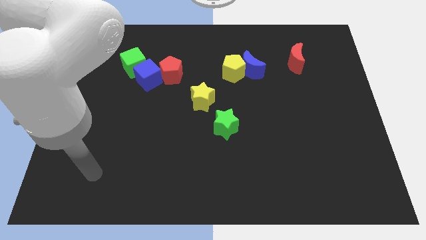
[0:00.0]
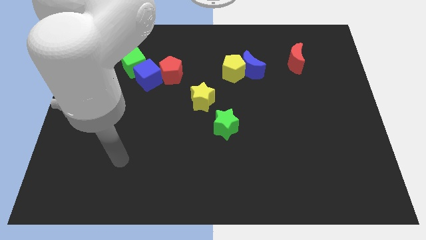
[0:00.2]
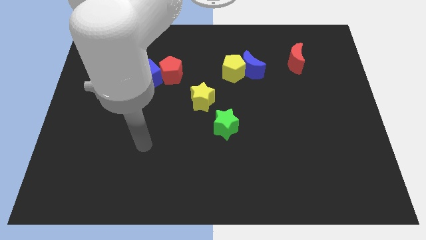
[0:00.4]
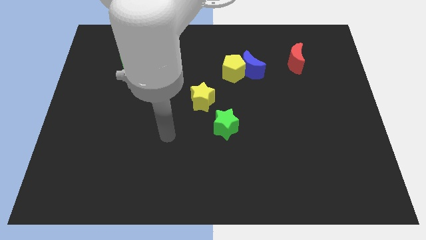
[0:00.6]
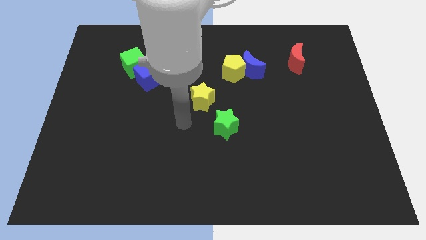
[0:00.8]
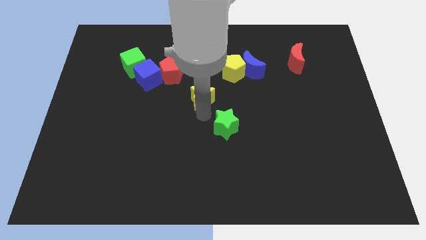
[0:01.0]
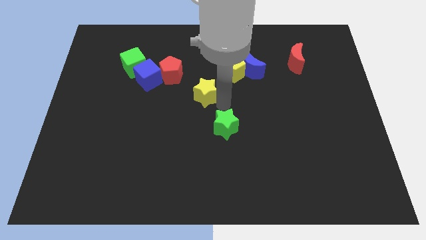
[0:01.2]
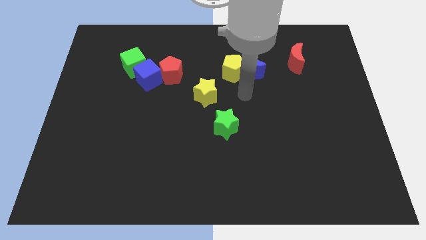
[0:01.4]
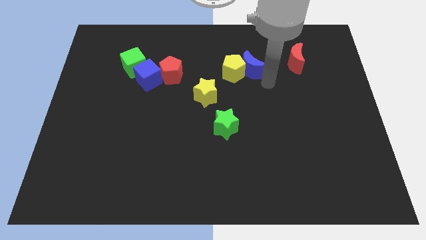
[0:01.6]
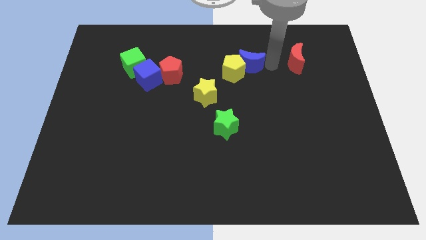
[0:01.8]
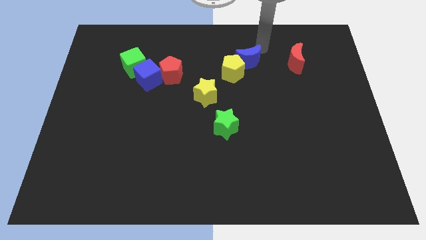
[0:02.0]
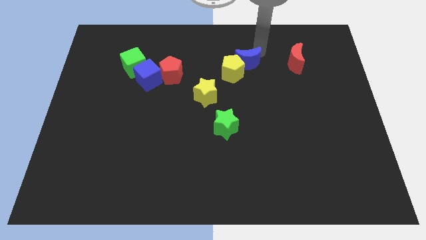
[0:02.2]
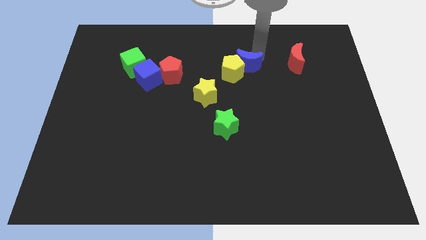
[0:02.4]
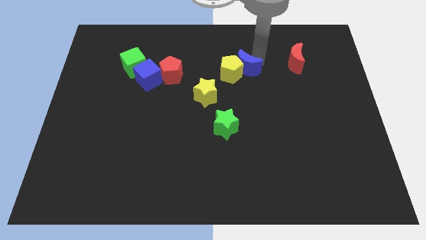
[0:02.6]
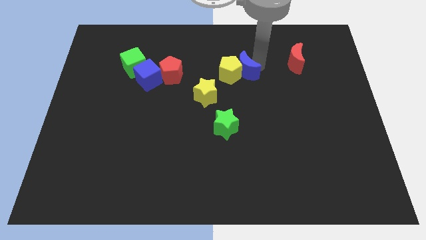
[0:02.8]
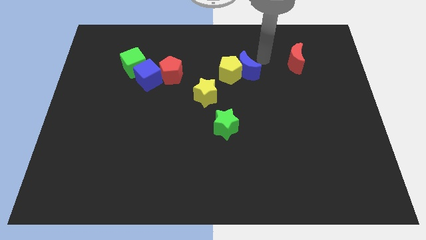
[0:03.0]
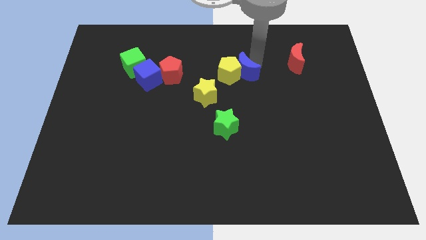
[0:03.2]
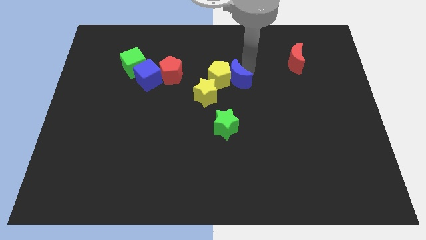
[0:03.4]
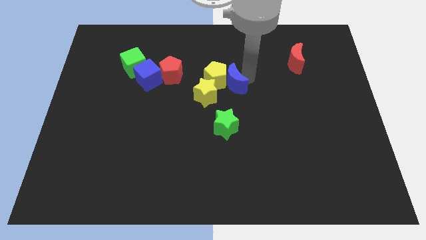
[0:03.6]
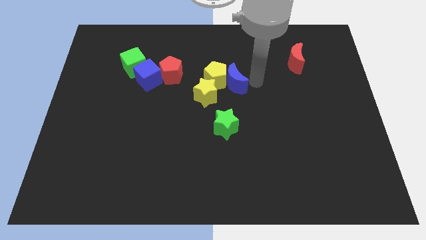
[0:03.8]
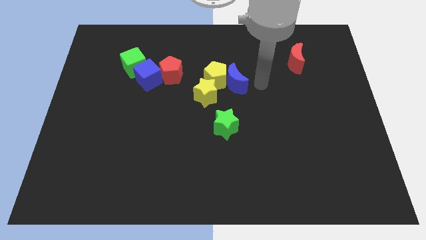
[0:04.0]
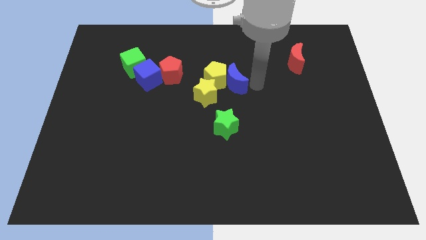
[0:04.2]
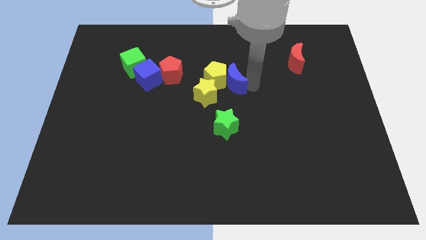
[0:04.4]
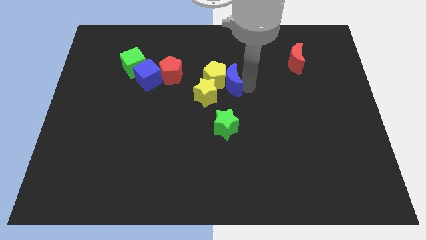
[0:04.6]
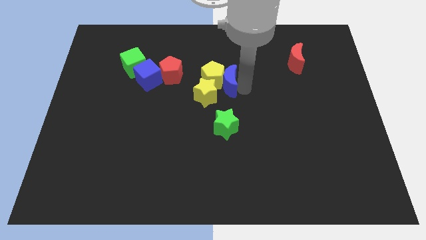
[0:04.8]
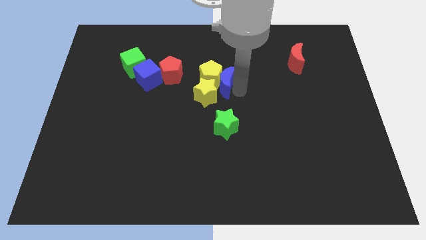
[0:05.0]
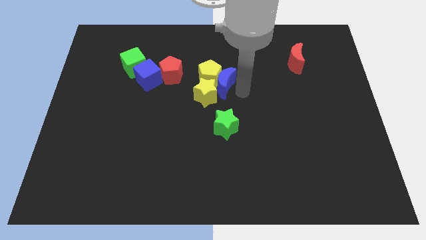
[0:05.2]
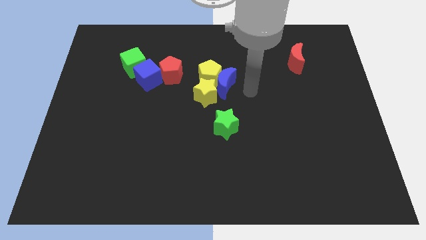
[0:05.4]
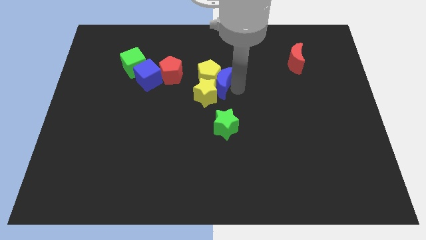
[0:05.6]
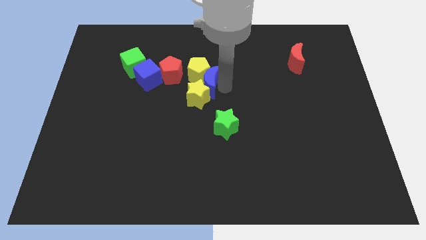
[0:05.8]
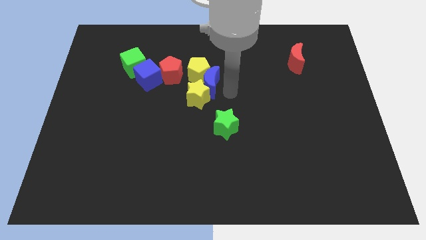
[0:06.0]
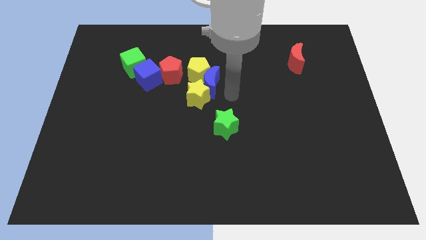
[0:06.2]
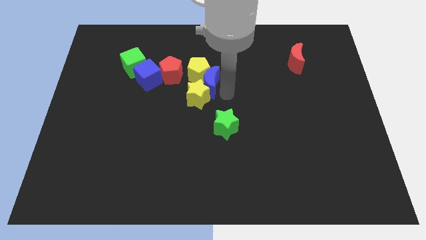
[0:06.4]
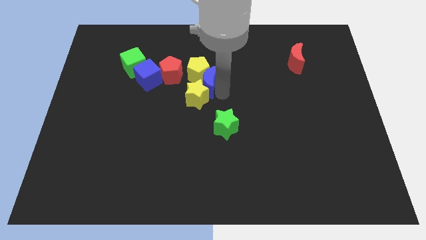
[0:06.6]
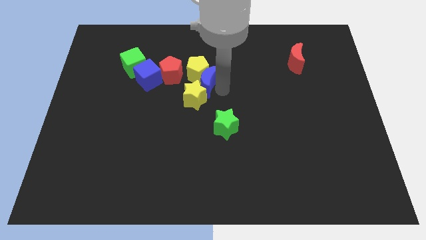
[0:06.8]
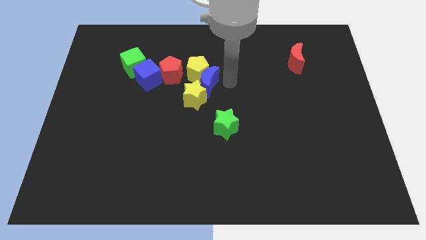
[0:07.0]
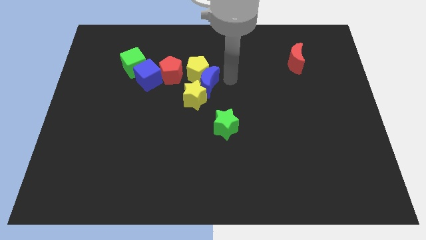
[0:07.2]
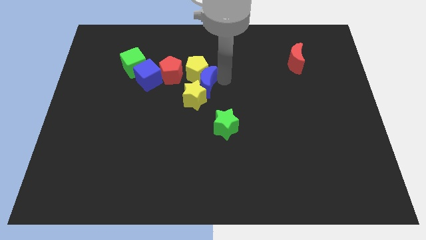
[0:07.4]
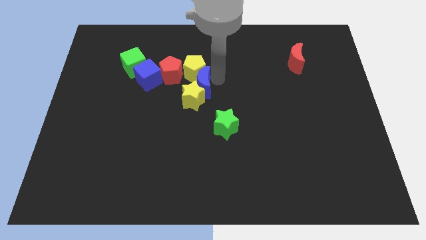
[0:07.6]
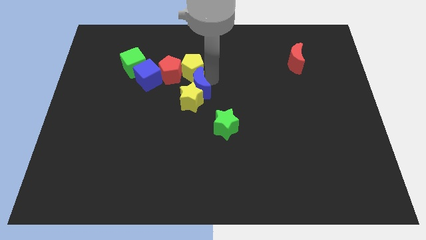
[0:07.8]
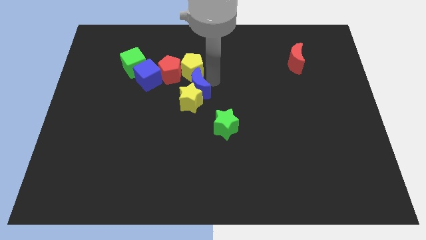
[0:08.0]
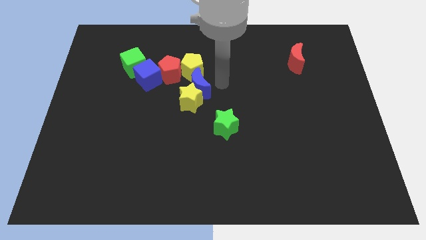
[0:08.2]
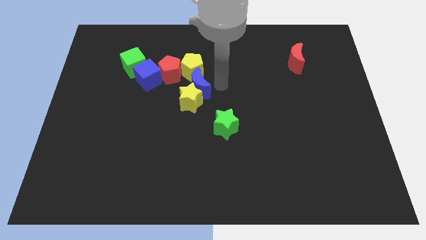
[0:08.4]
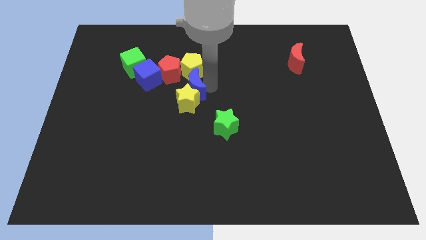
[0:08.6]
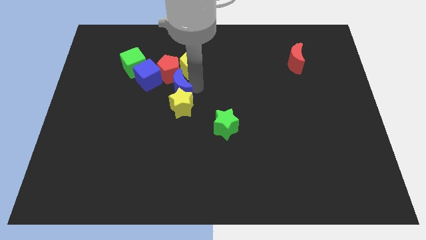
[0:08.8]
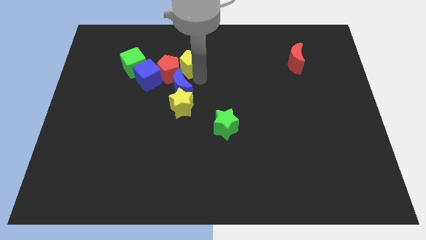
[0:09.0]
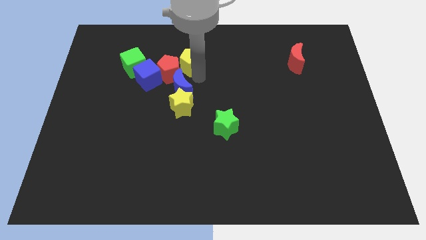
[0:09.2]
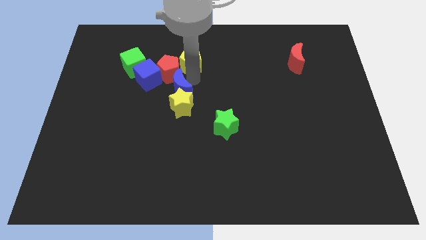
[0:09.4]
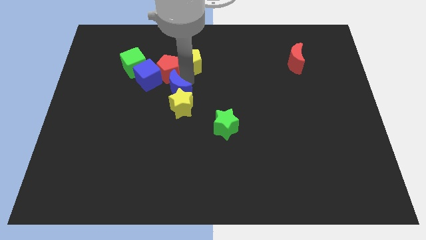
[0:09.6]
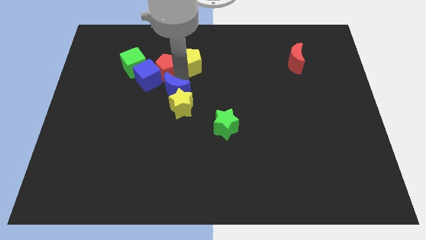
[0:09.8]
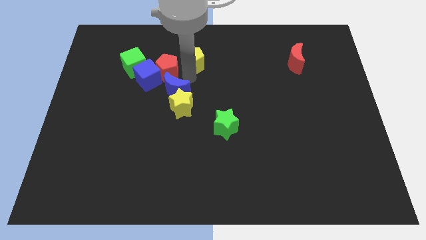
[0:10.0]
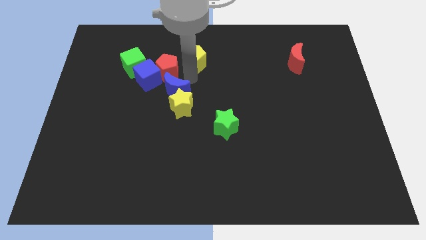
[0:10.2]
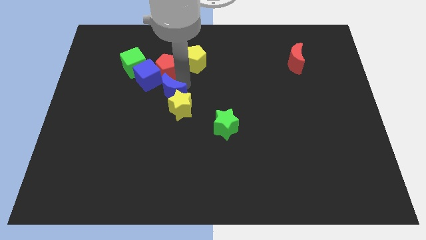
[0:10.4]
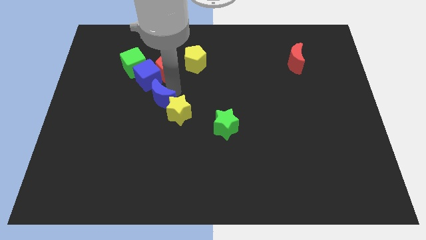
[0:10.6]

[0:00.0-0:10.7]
put the blue moon to the bottom side of the blue cube

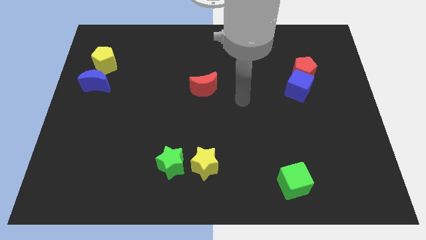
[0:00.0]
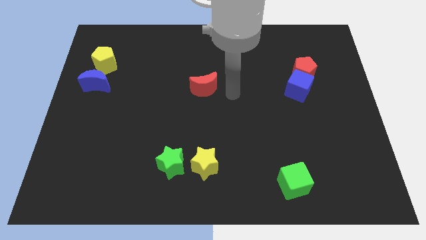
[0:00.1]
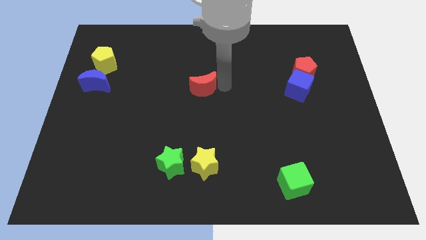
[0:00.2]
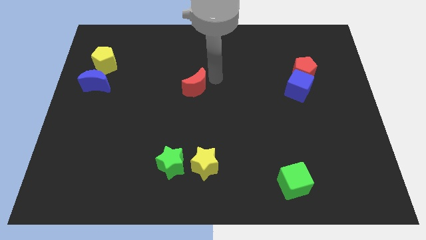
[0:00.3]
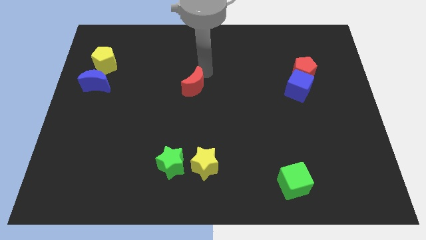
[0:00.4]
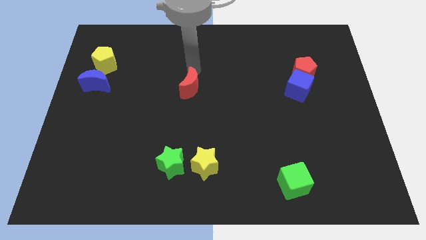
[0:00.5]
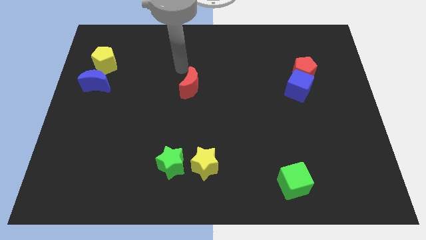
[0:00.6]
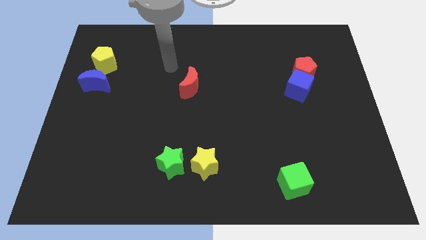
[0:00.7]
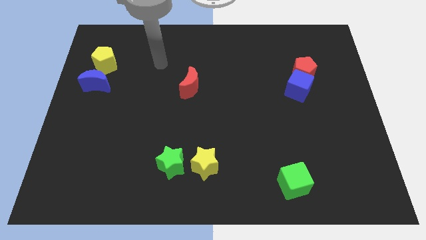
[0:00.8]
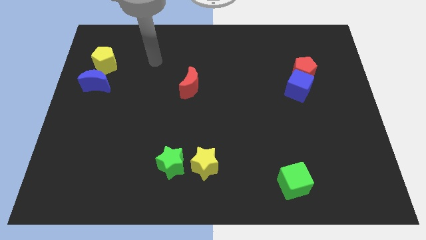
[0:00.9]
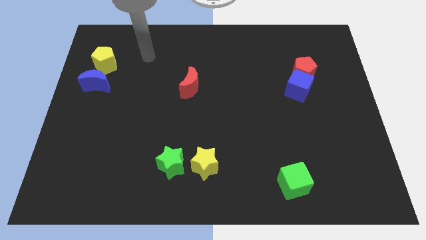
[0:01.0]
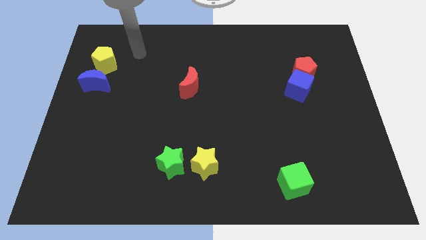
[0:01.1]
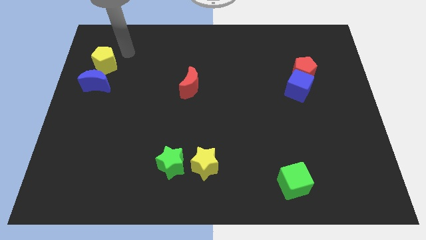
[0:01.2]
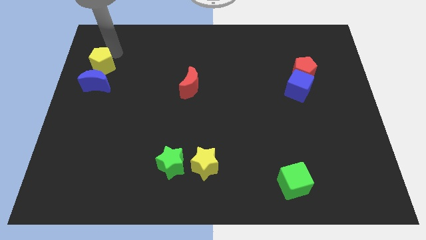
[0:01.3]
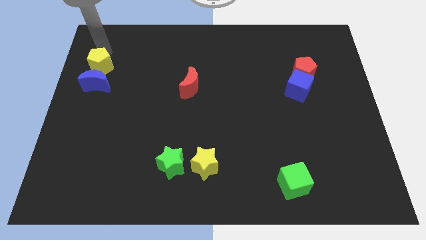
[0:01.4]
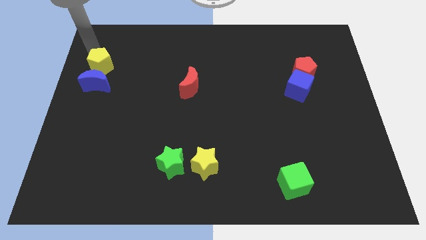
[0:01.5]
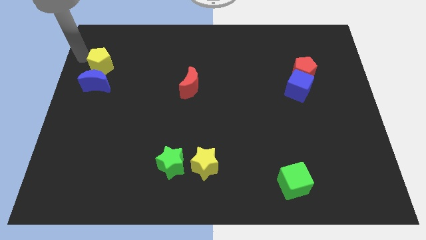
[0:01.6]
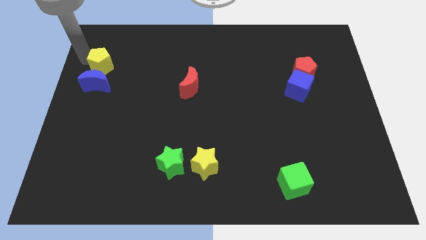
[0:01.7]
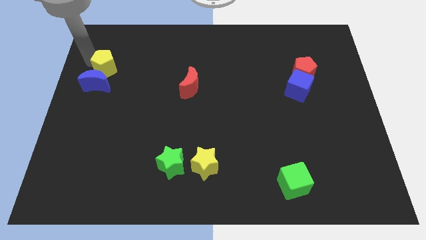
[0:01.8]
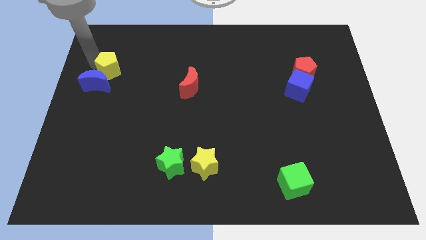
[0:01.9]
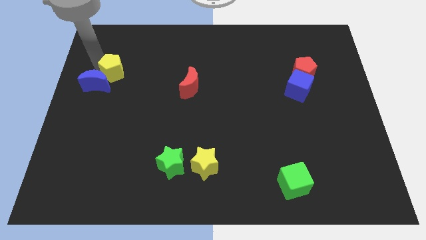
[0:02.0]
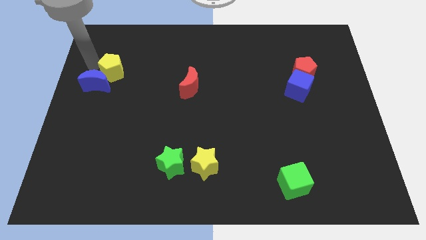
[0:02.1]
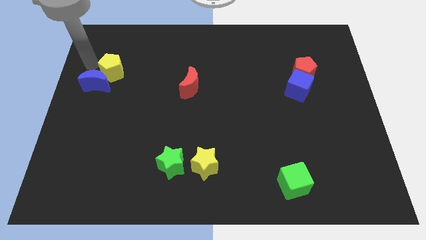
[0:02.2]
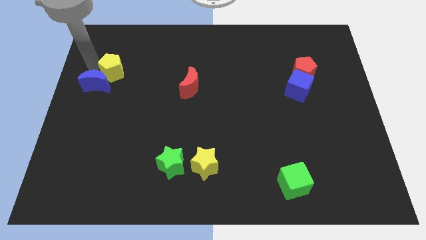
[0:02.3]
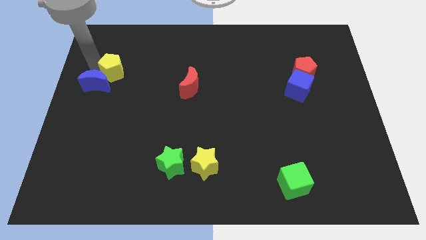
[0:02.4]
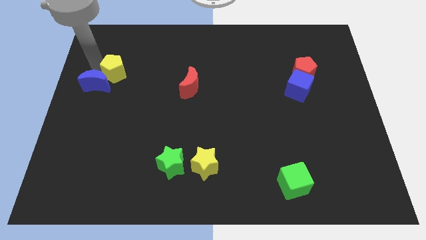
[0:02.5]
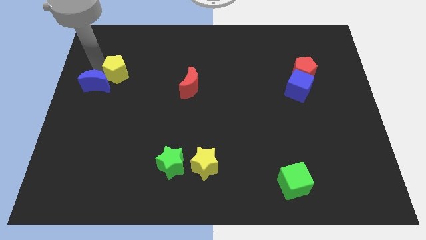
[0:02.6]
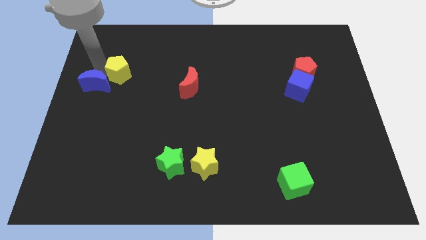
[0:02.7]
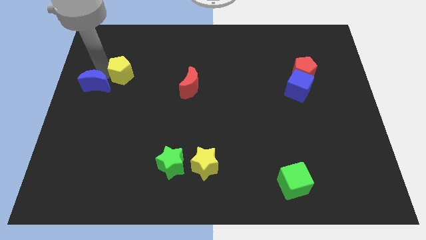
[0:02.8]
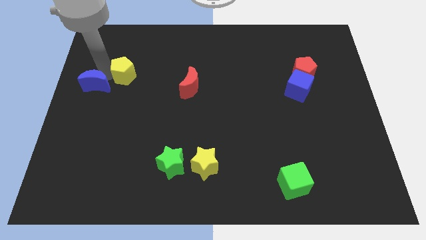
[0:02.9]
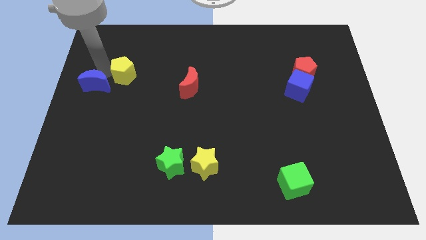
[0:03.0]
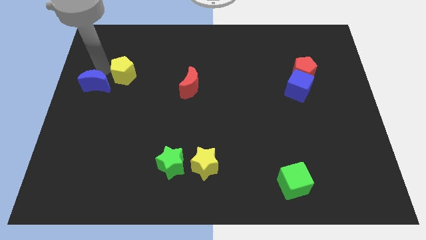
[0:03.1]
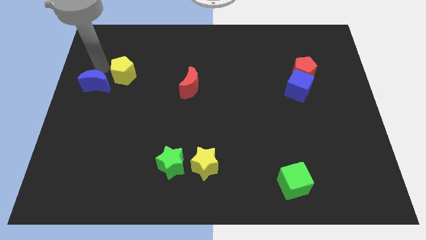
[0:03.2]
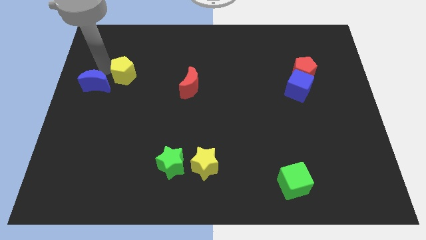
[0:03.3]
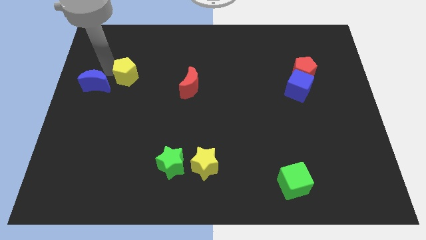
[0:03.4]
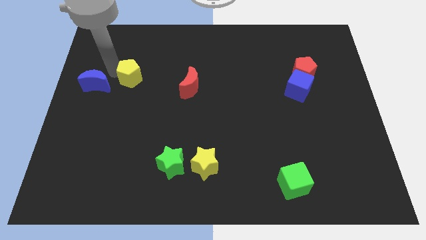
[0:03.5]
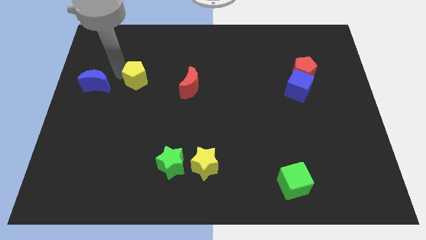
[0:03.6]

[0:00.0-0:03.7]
move the yellow pentagon just left of the red moon
